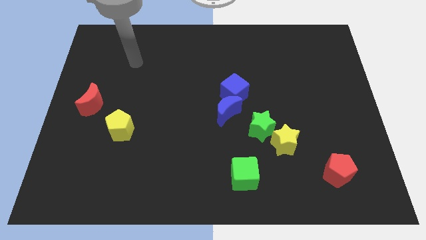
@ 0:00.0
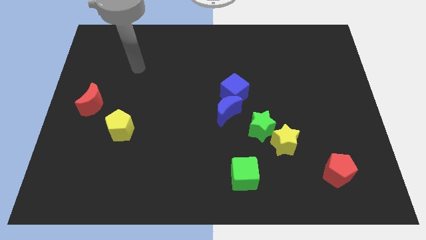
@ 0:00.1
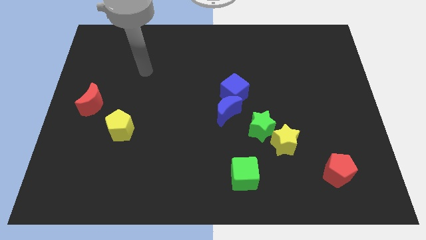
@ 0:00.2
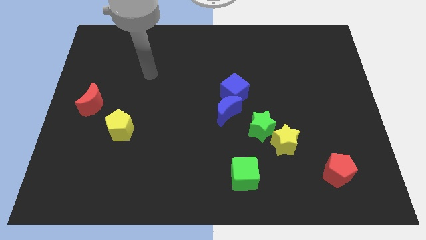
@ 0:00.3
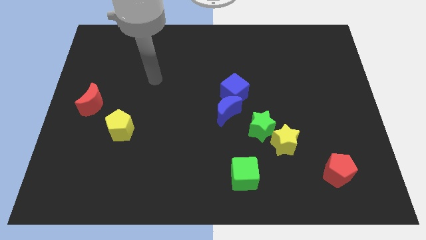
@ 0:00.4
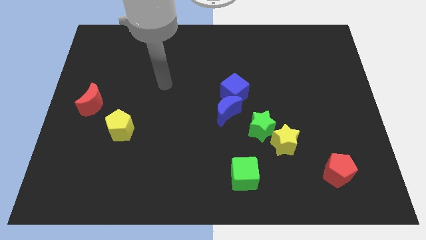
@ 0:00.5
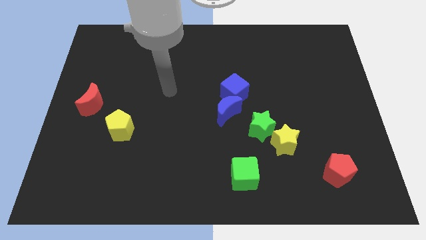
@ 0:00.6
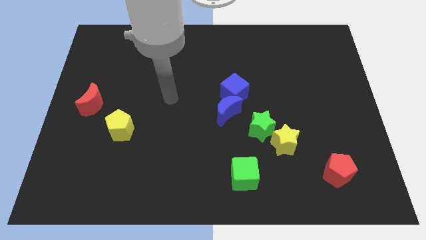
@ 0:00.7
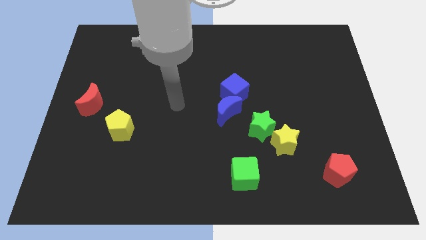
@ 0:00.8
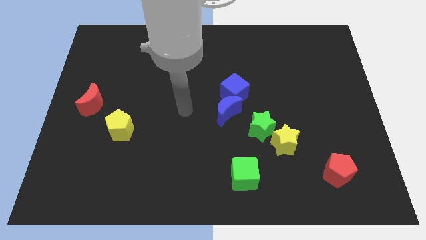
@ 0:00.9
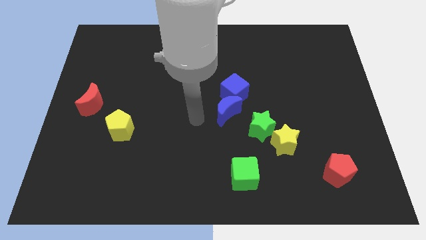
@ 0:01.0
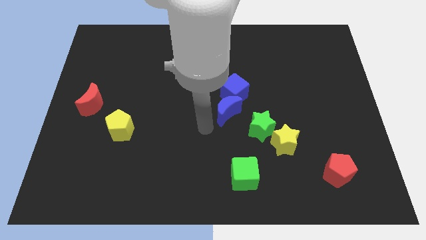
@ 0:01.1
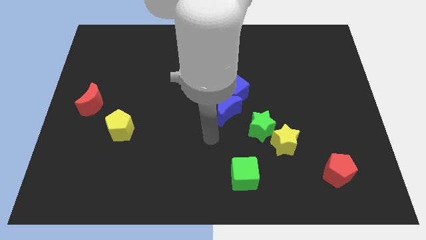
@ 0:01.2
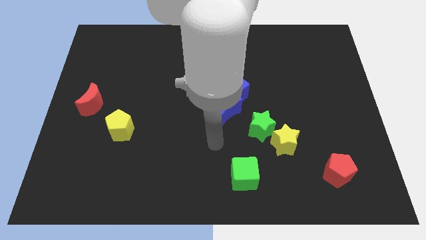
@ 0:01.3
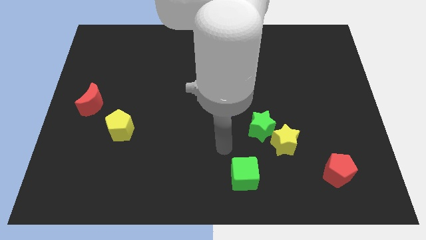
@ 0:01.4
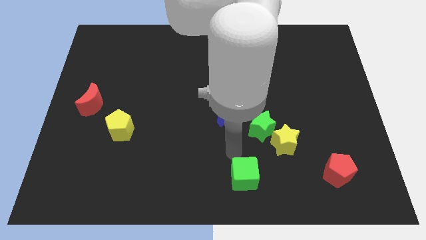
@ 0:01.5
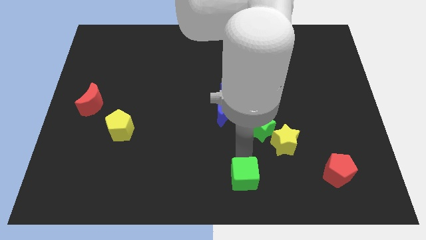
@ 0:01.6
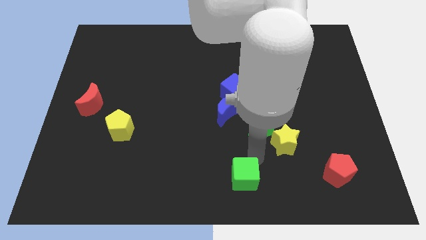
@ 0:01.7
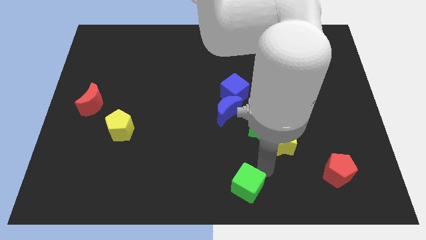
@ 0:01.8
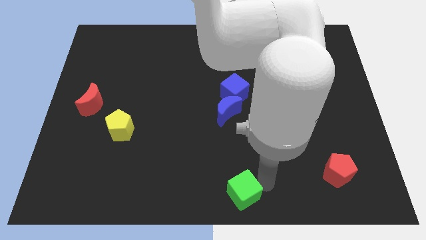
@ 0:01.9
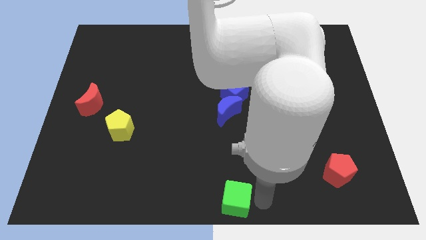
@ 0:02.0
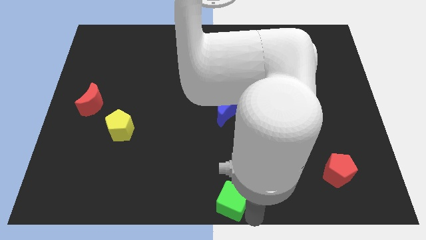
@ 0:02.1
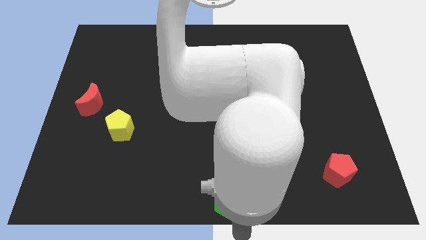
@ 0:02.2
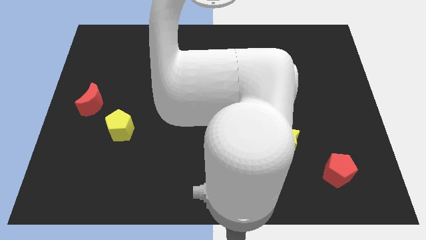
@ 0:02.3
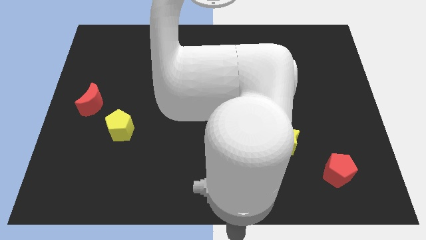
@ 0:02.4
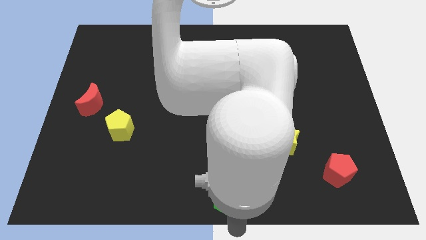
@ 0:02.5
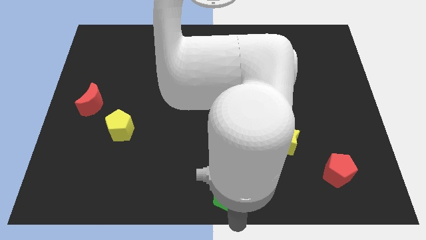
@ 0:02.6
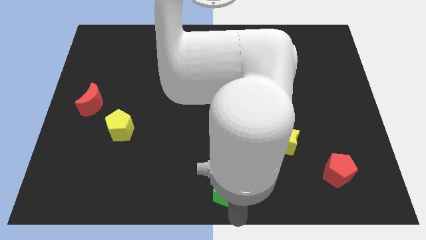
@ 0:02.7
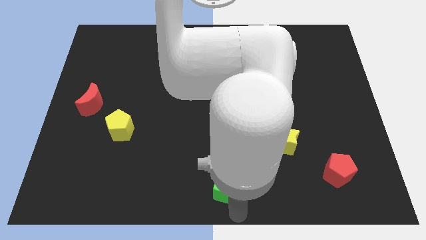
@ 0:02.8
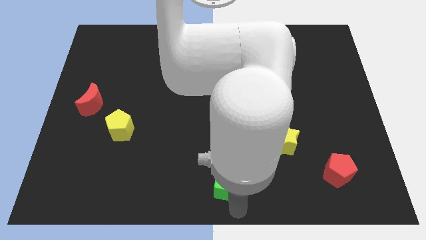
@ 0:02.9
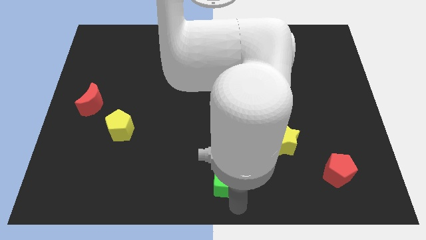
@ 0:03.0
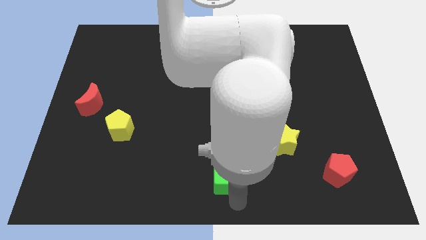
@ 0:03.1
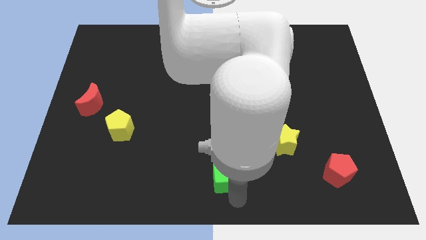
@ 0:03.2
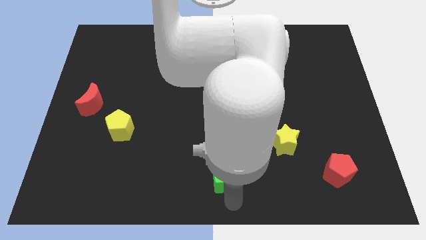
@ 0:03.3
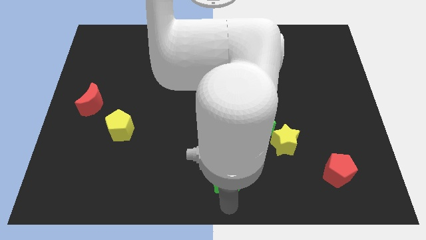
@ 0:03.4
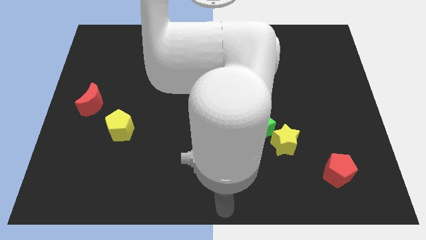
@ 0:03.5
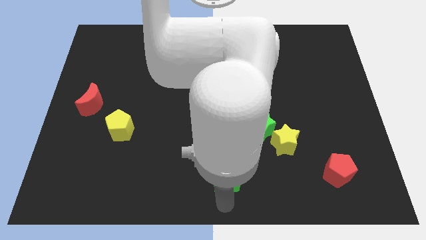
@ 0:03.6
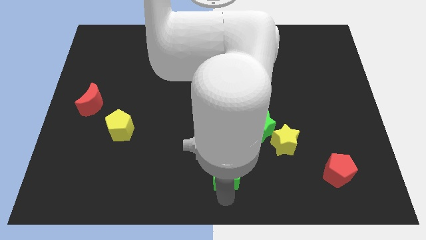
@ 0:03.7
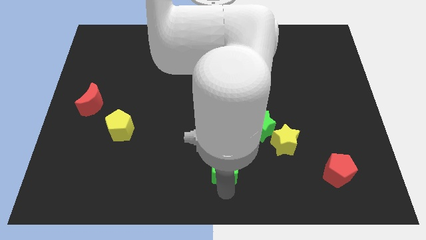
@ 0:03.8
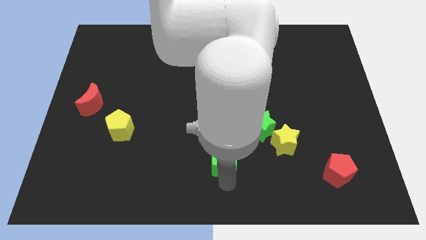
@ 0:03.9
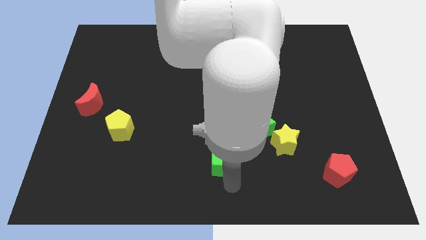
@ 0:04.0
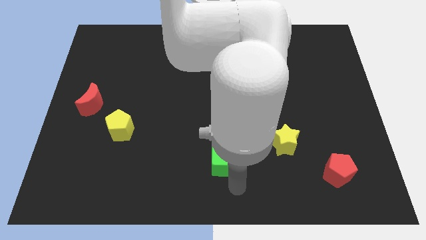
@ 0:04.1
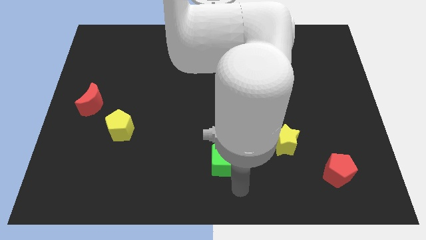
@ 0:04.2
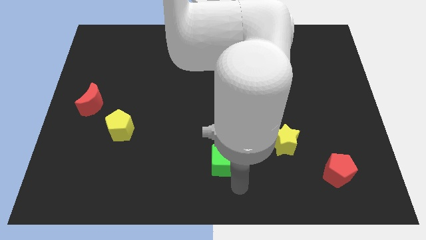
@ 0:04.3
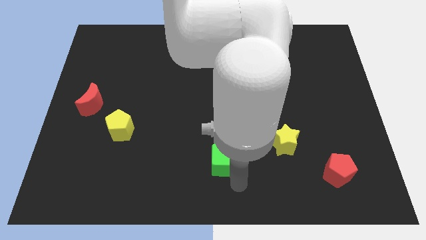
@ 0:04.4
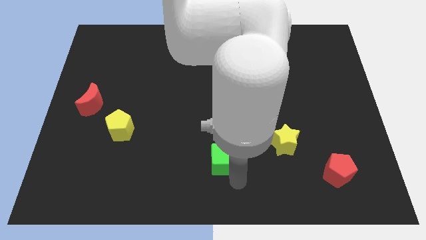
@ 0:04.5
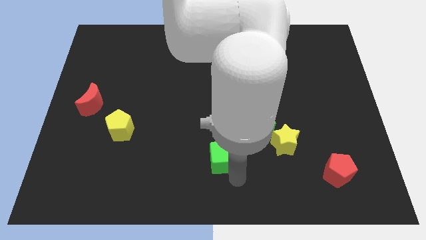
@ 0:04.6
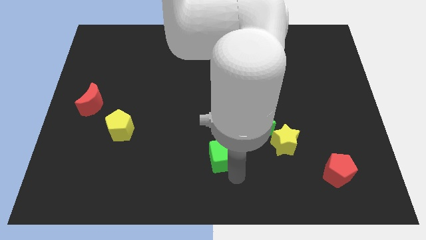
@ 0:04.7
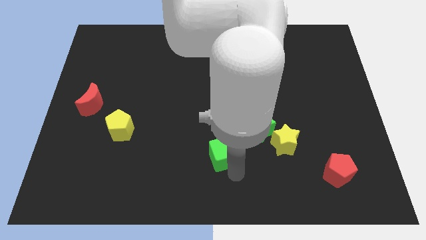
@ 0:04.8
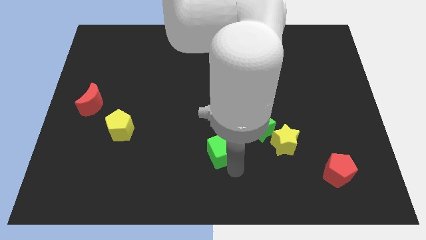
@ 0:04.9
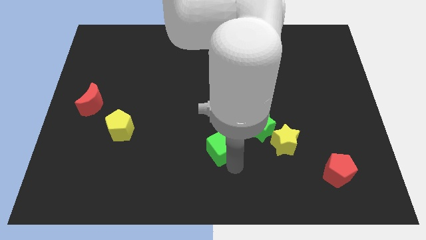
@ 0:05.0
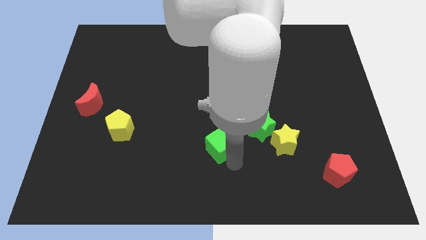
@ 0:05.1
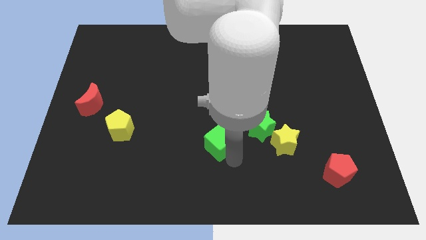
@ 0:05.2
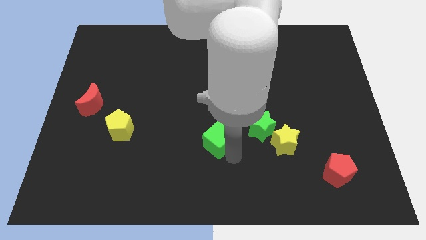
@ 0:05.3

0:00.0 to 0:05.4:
move the green cube to the bottom left side of the blue moon

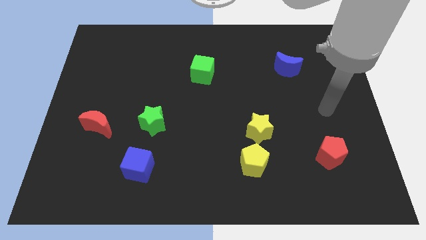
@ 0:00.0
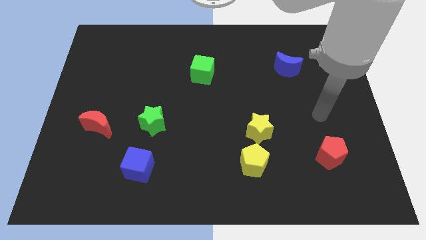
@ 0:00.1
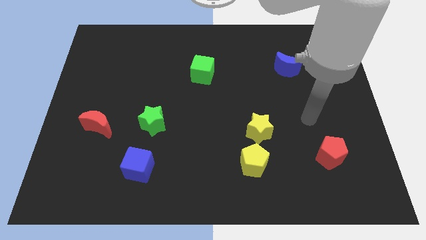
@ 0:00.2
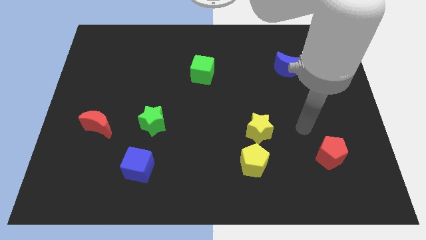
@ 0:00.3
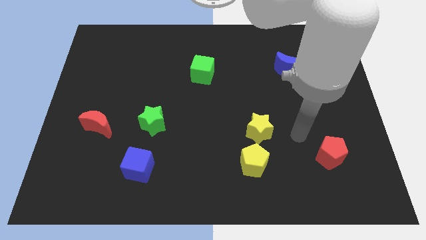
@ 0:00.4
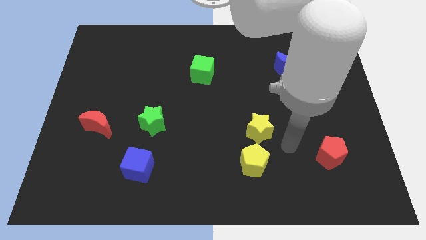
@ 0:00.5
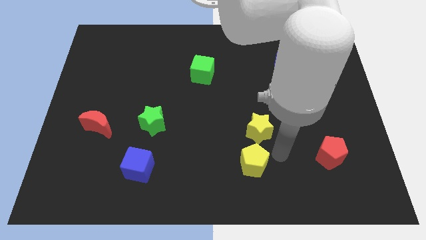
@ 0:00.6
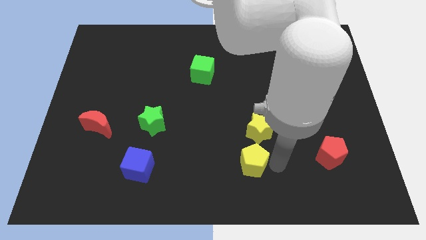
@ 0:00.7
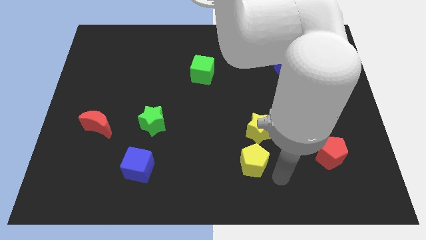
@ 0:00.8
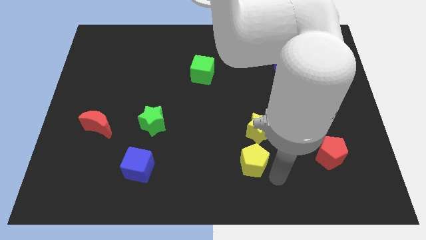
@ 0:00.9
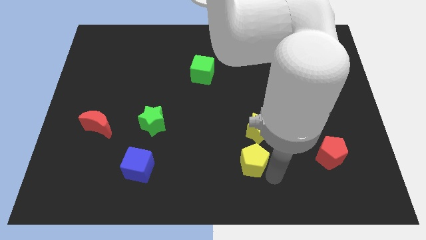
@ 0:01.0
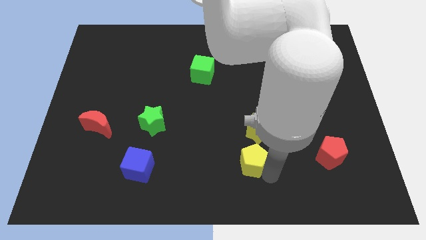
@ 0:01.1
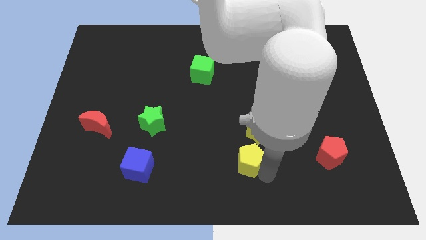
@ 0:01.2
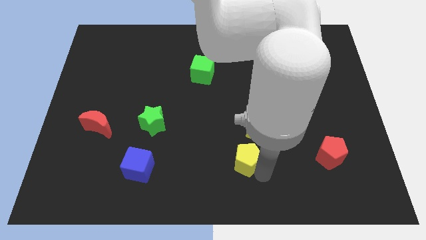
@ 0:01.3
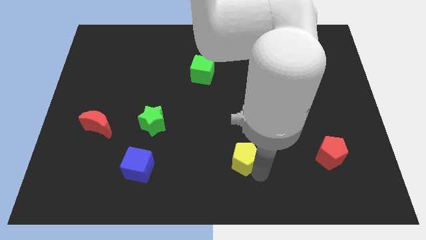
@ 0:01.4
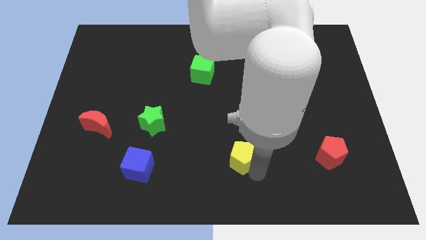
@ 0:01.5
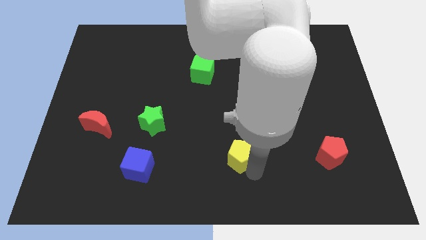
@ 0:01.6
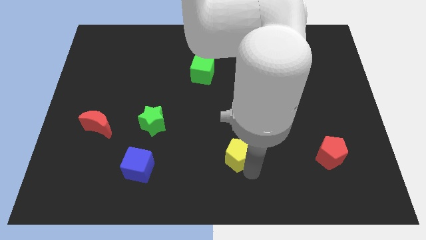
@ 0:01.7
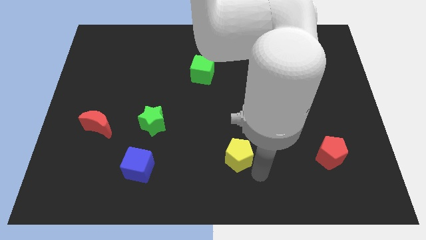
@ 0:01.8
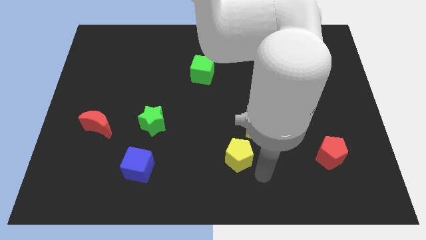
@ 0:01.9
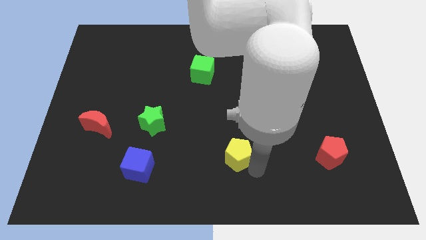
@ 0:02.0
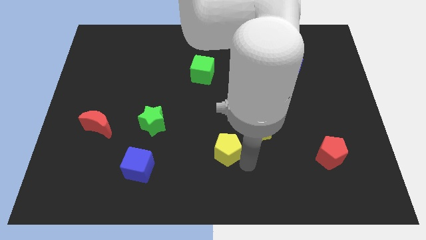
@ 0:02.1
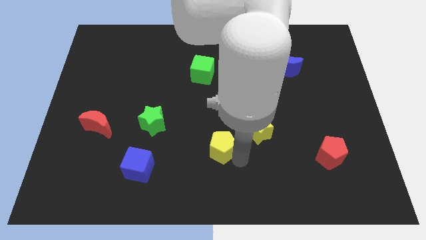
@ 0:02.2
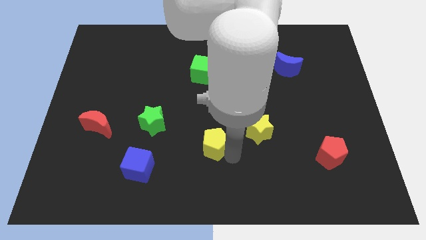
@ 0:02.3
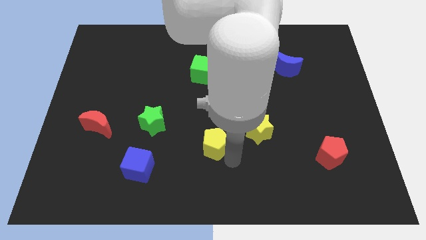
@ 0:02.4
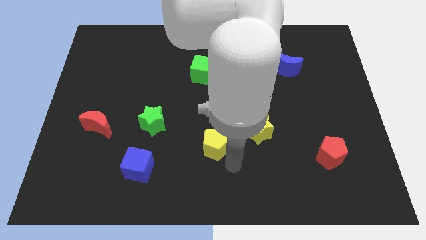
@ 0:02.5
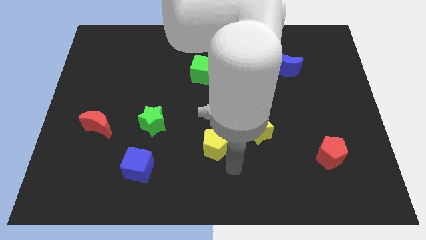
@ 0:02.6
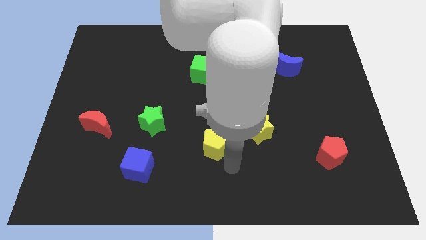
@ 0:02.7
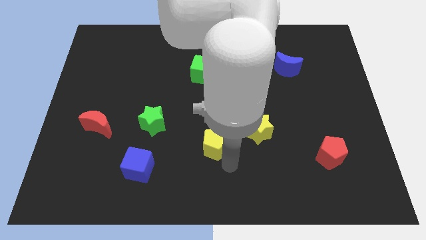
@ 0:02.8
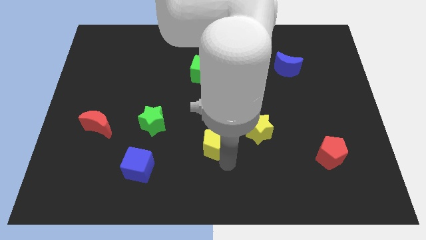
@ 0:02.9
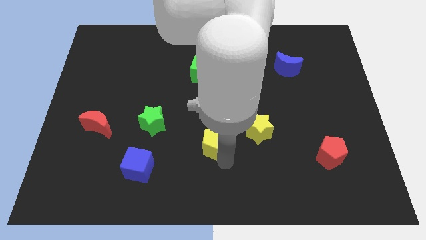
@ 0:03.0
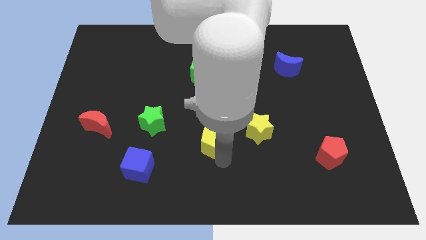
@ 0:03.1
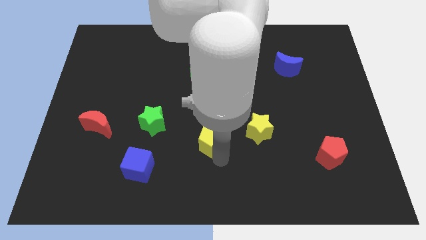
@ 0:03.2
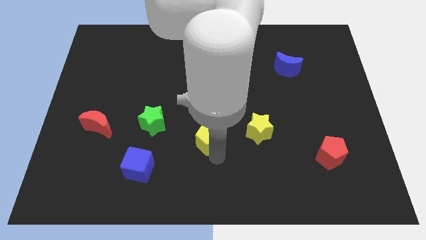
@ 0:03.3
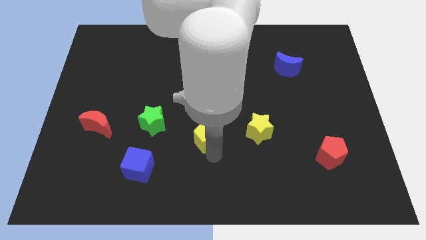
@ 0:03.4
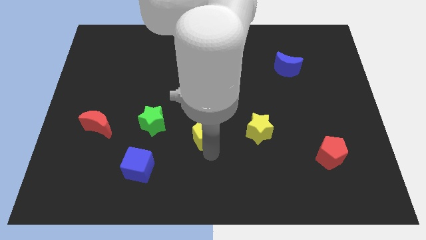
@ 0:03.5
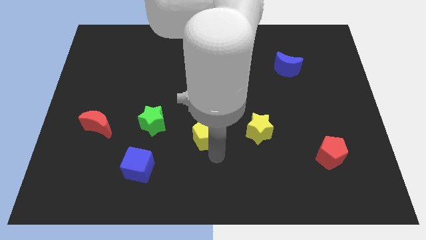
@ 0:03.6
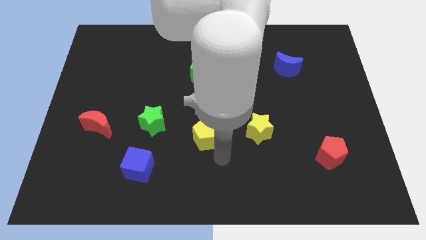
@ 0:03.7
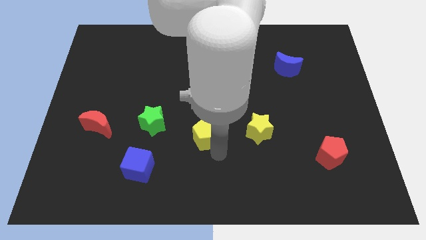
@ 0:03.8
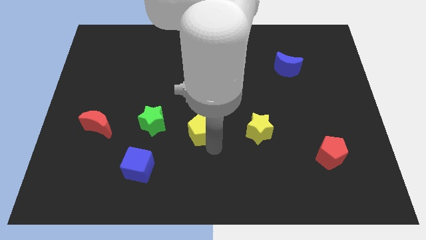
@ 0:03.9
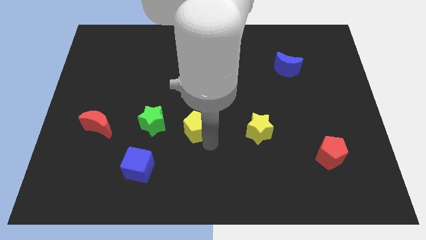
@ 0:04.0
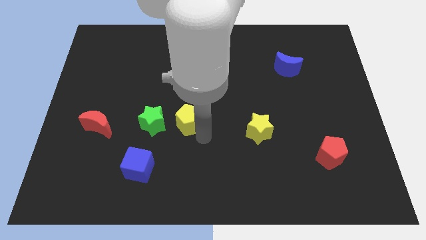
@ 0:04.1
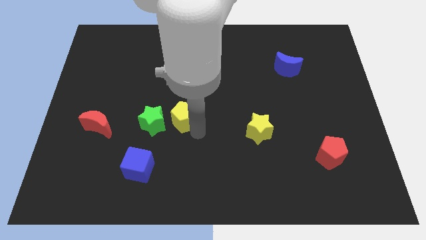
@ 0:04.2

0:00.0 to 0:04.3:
push the yellow pentagon diagonally up and to the right of the green star
